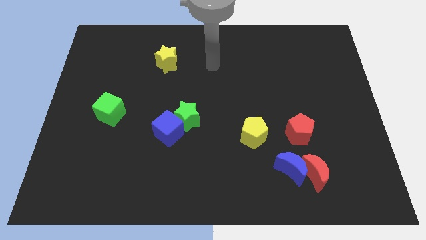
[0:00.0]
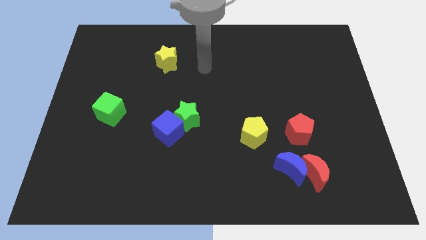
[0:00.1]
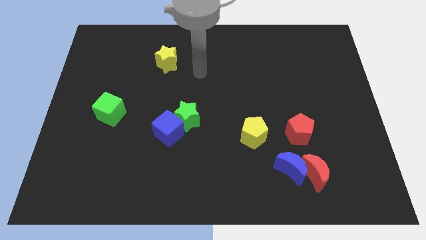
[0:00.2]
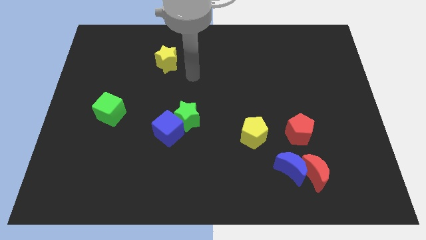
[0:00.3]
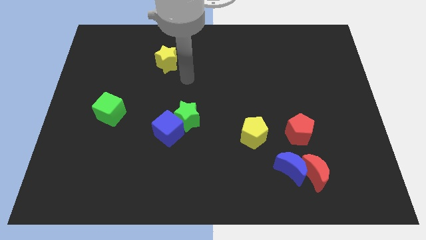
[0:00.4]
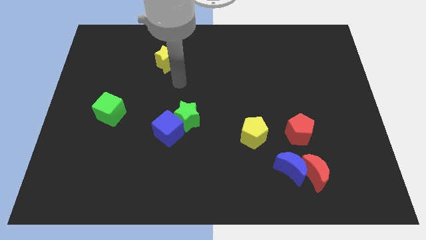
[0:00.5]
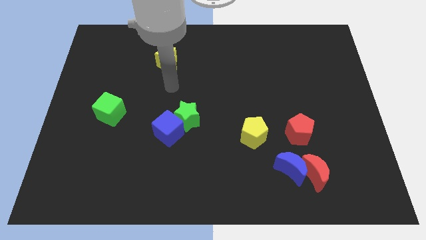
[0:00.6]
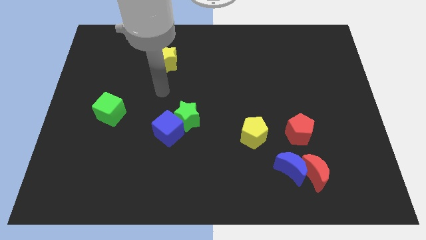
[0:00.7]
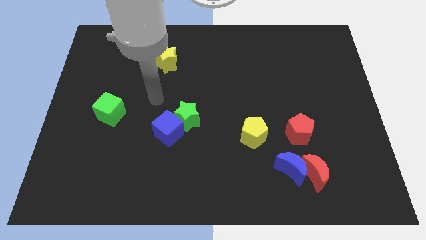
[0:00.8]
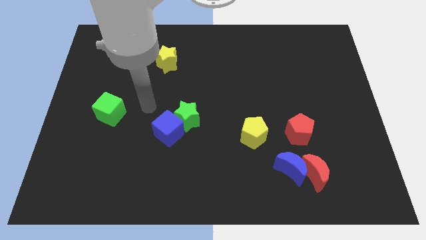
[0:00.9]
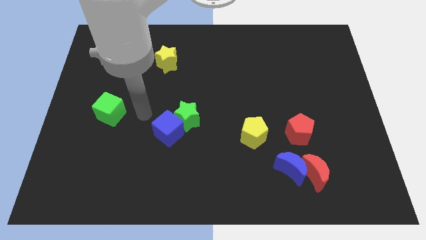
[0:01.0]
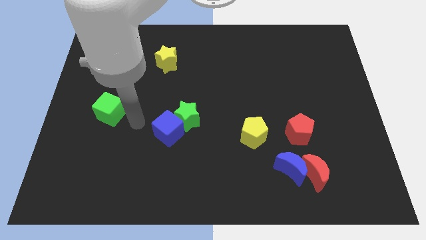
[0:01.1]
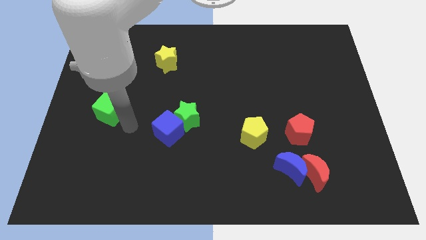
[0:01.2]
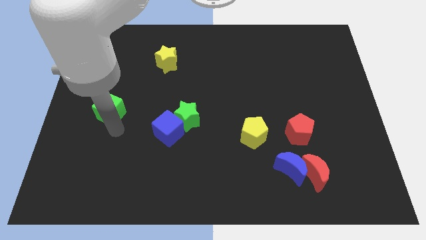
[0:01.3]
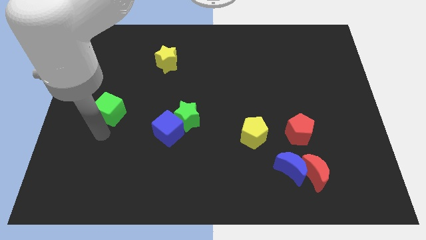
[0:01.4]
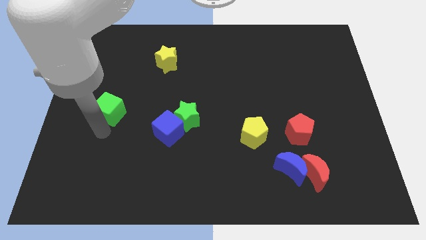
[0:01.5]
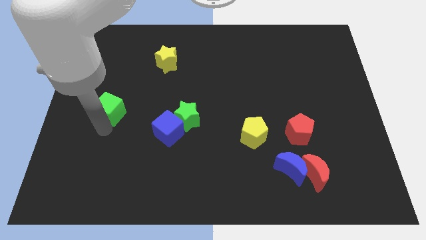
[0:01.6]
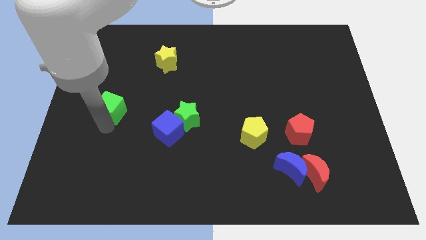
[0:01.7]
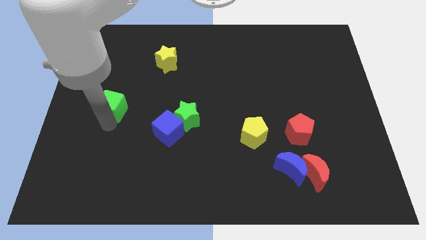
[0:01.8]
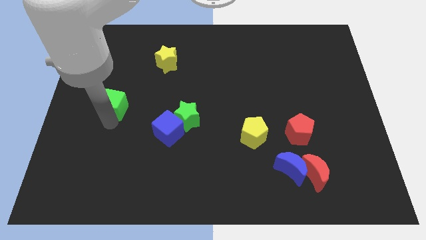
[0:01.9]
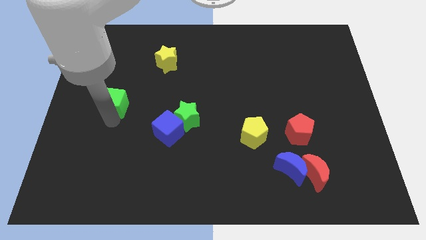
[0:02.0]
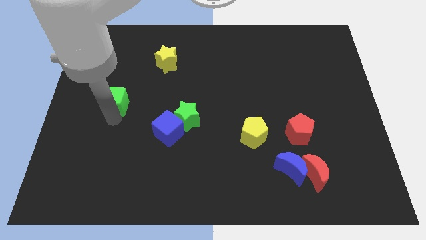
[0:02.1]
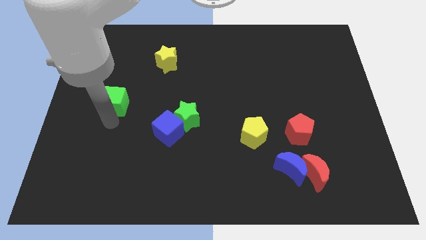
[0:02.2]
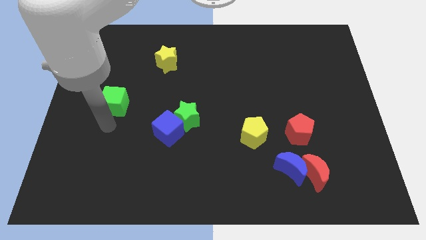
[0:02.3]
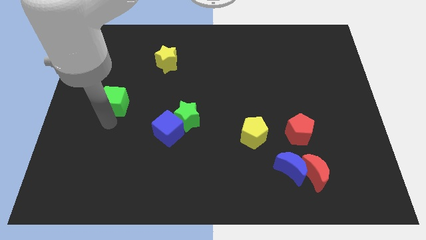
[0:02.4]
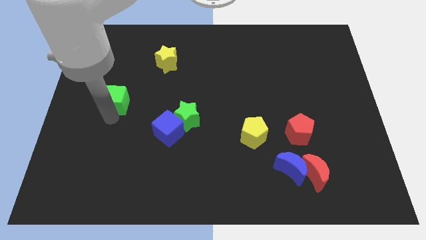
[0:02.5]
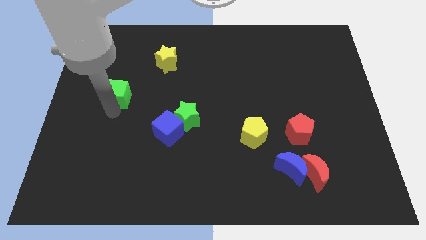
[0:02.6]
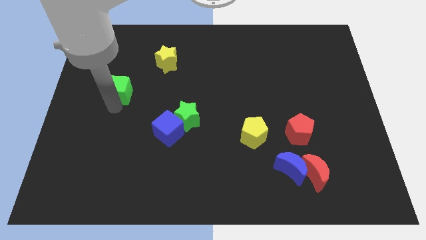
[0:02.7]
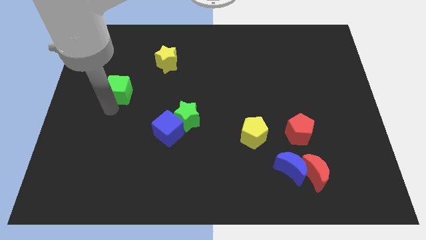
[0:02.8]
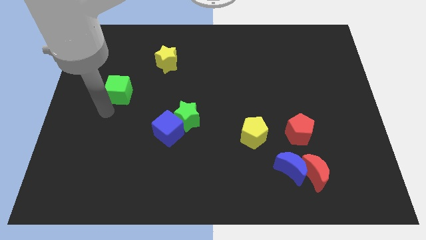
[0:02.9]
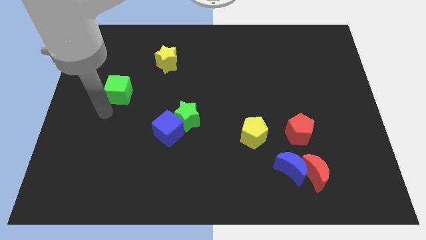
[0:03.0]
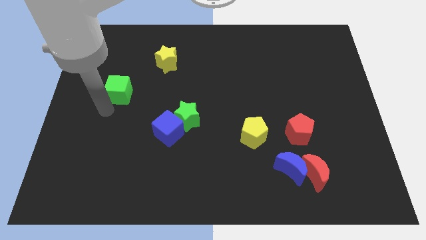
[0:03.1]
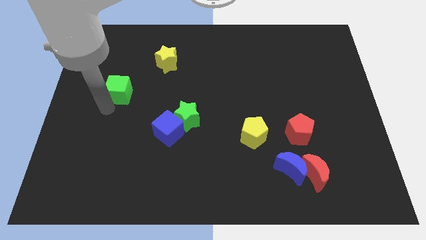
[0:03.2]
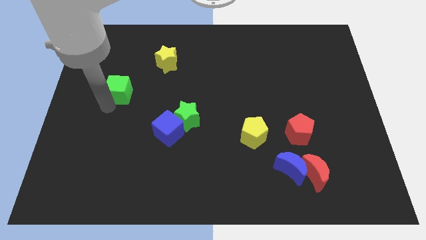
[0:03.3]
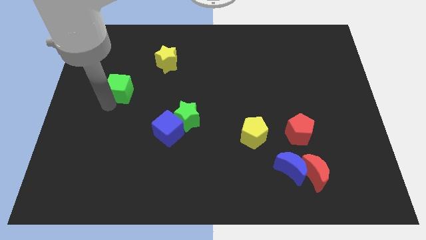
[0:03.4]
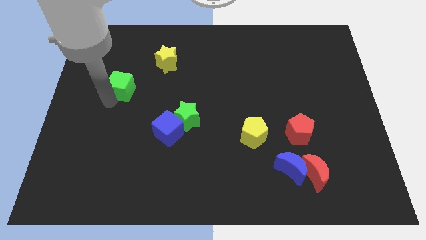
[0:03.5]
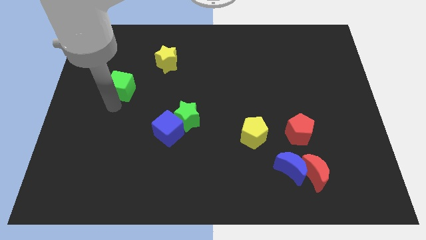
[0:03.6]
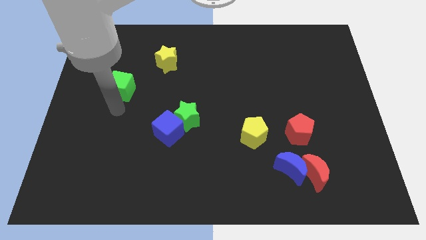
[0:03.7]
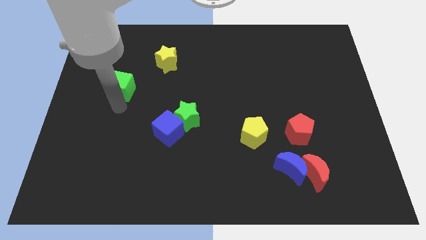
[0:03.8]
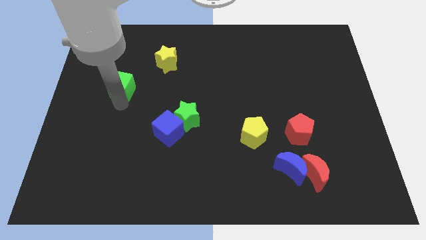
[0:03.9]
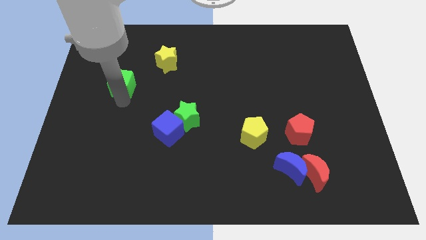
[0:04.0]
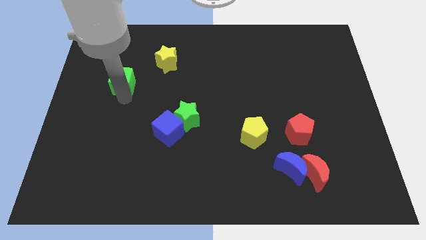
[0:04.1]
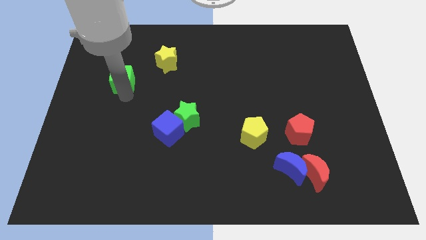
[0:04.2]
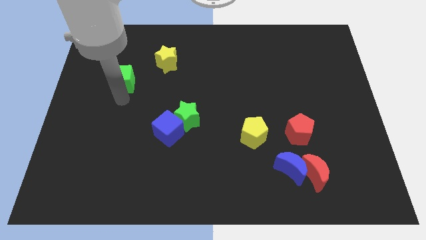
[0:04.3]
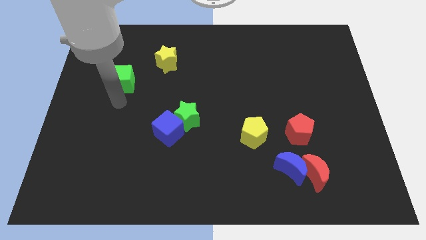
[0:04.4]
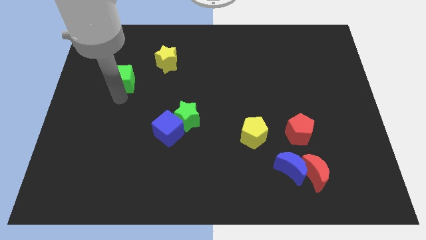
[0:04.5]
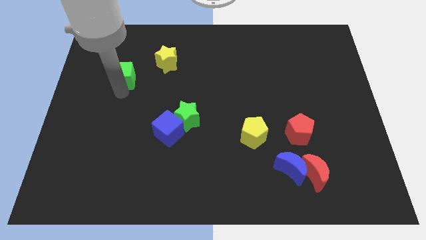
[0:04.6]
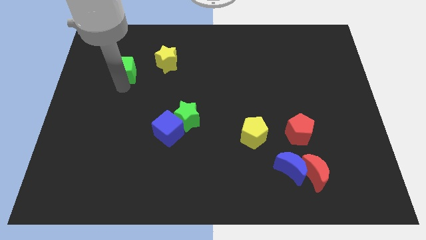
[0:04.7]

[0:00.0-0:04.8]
move the green cube just left of the yellow star

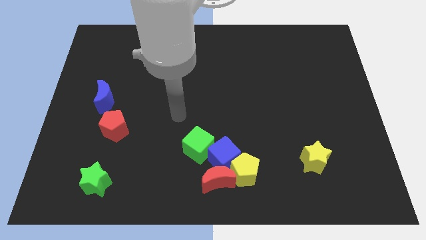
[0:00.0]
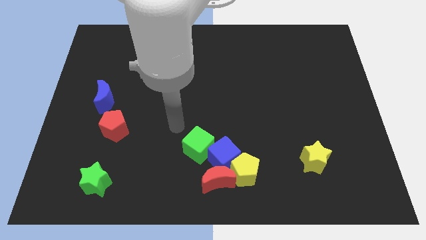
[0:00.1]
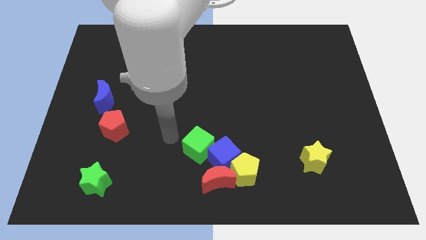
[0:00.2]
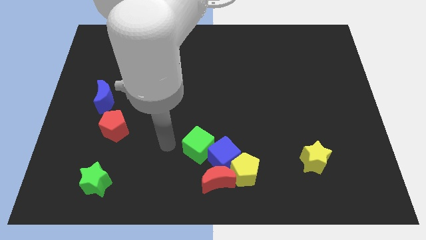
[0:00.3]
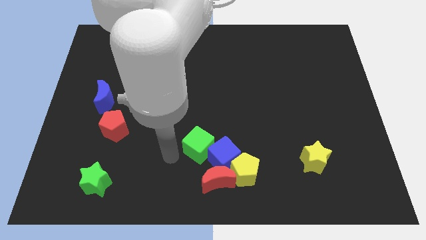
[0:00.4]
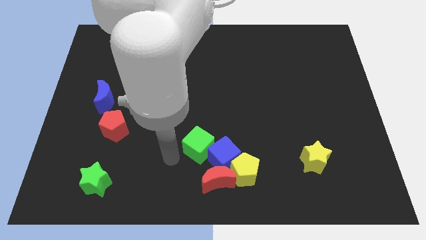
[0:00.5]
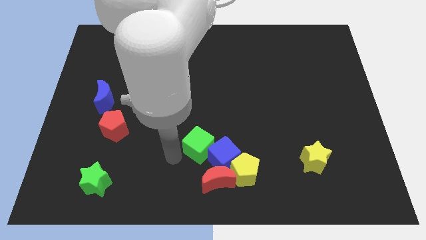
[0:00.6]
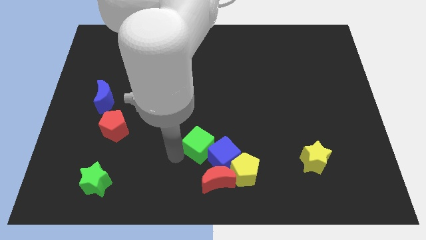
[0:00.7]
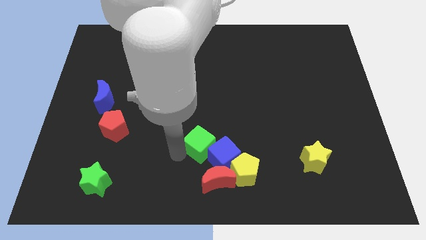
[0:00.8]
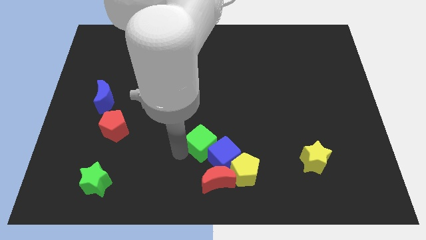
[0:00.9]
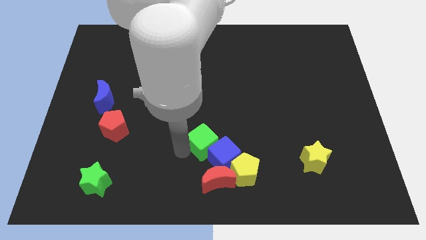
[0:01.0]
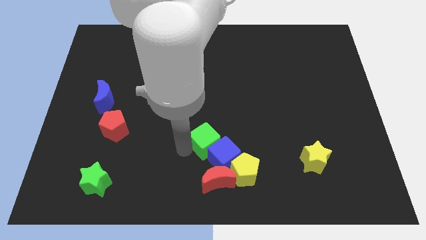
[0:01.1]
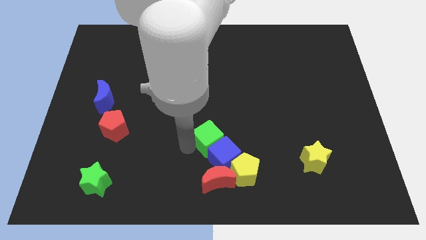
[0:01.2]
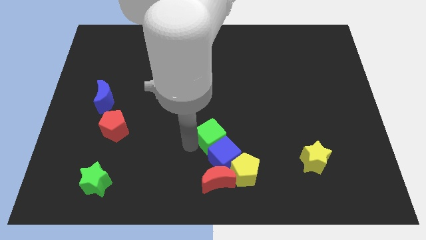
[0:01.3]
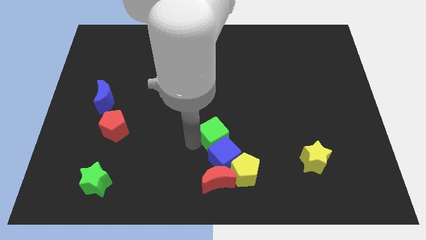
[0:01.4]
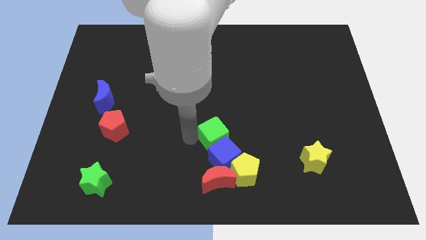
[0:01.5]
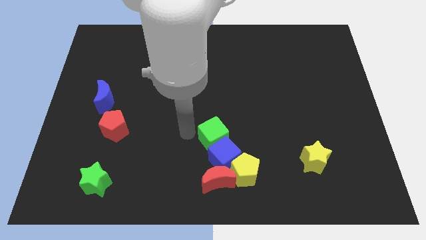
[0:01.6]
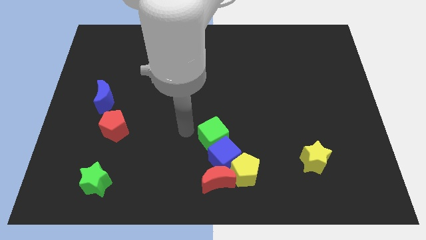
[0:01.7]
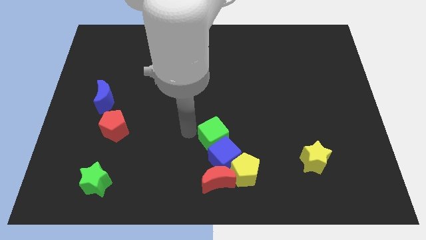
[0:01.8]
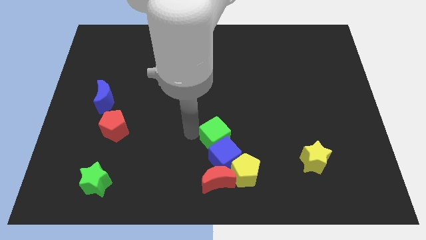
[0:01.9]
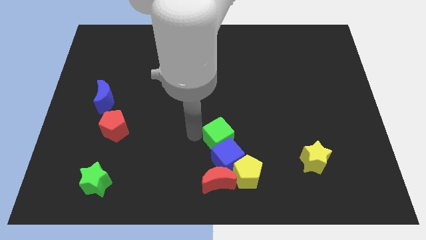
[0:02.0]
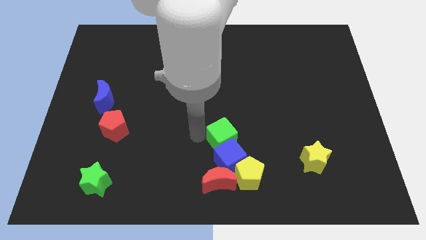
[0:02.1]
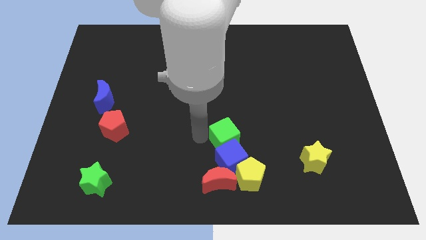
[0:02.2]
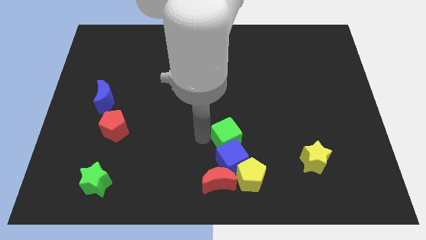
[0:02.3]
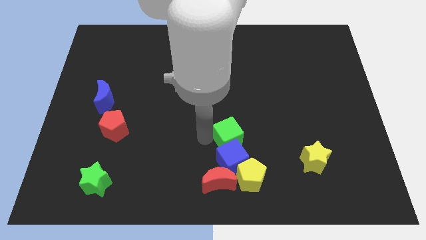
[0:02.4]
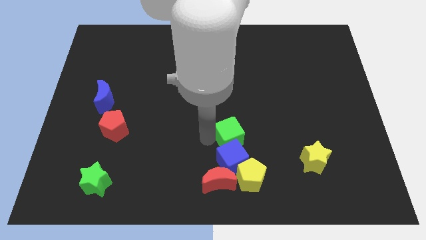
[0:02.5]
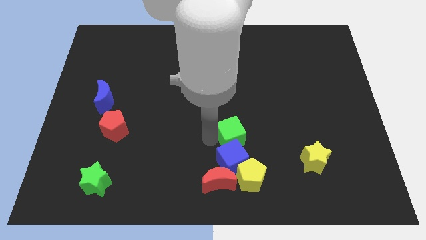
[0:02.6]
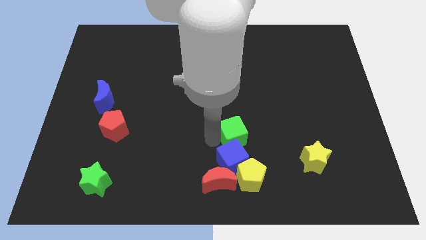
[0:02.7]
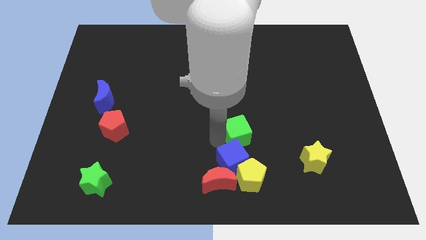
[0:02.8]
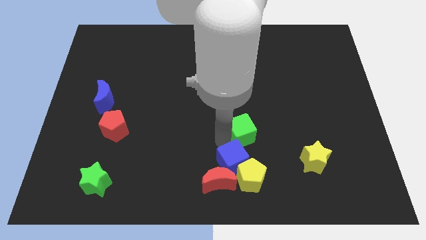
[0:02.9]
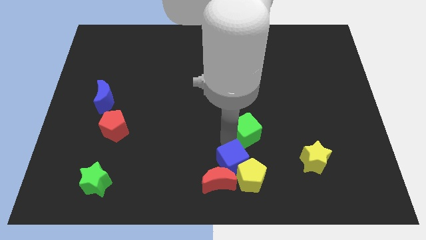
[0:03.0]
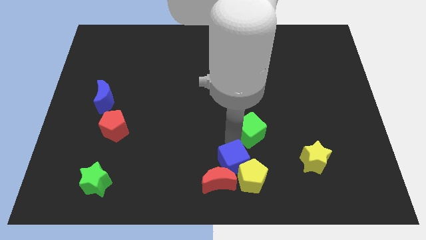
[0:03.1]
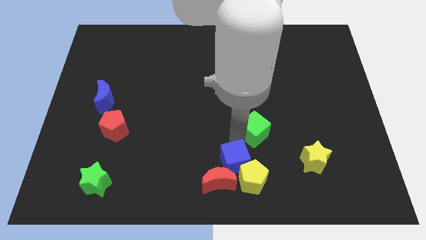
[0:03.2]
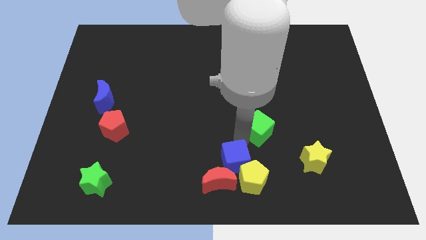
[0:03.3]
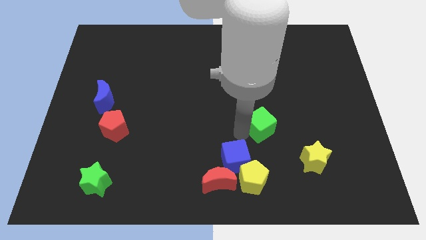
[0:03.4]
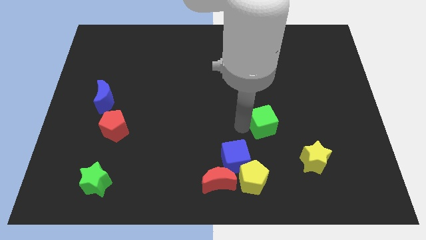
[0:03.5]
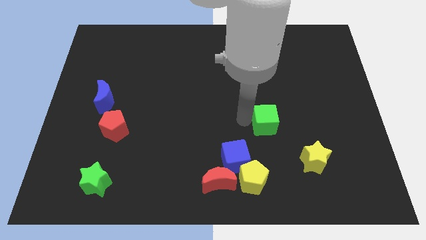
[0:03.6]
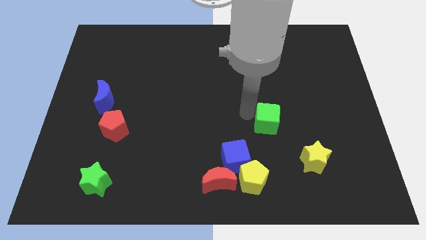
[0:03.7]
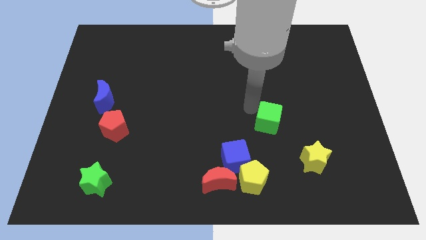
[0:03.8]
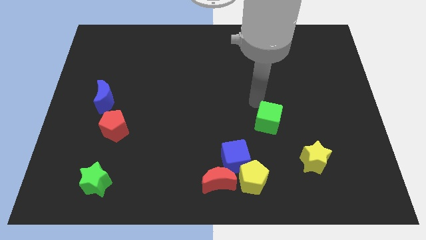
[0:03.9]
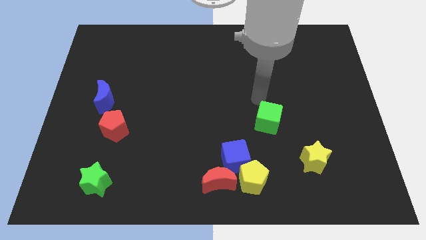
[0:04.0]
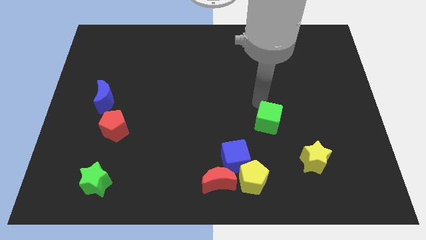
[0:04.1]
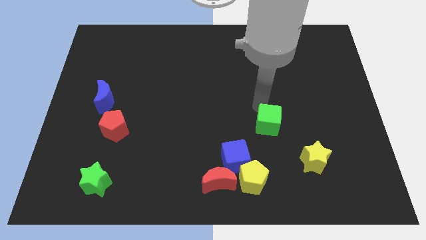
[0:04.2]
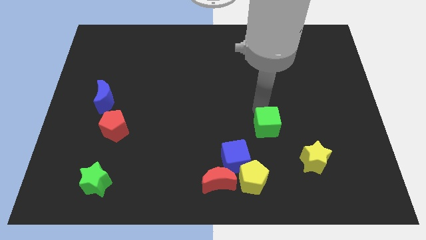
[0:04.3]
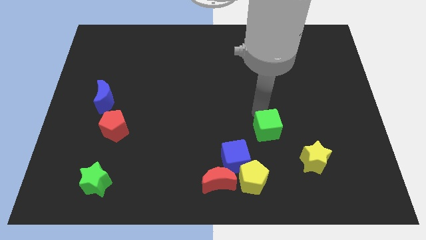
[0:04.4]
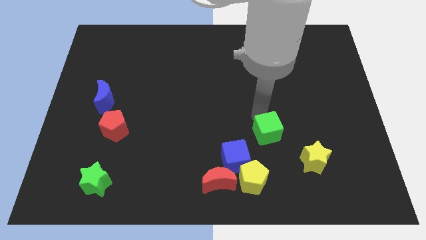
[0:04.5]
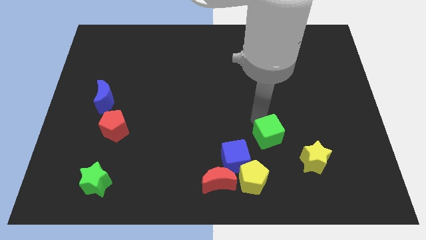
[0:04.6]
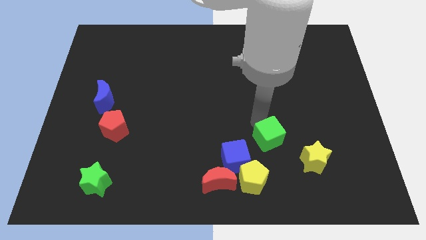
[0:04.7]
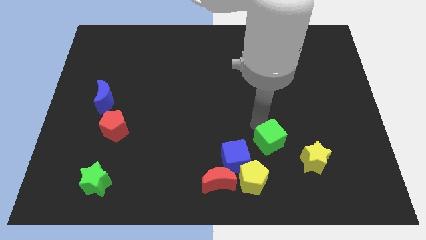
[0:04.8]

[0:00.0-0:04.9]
push the green cube just right of the blue cube
